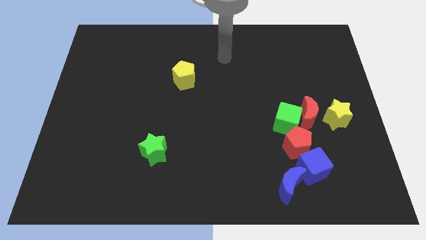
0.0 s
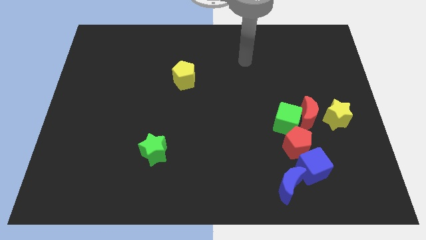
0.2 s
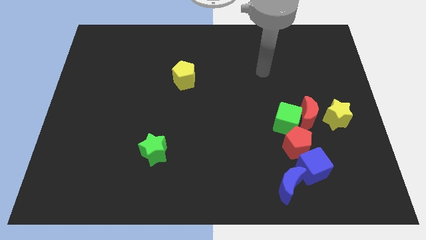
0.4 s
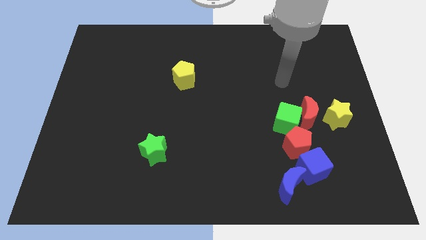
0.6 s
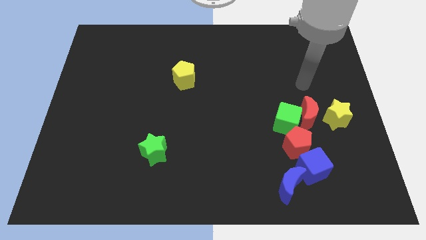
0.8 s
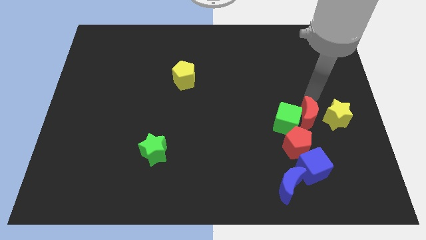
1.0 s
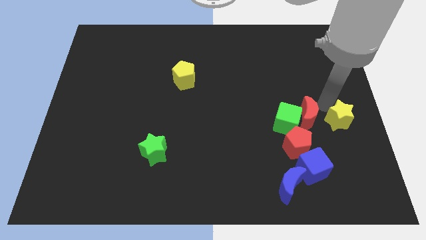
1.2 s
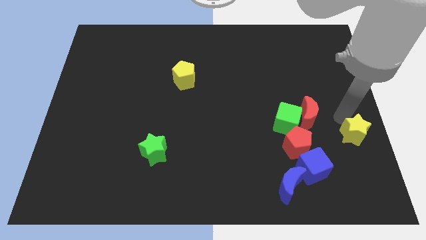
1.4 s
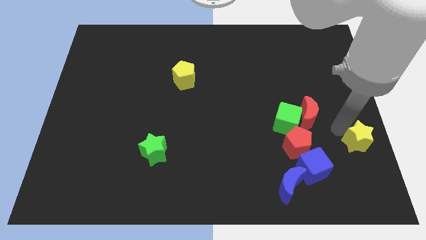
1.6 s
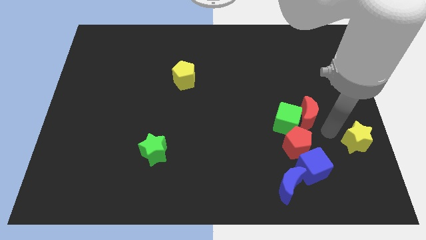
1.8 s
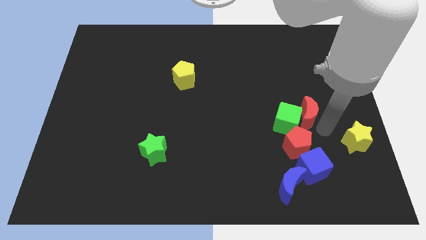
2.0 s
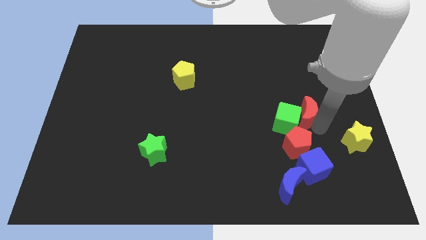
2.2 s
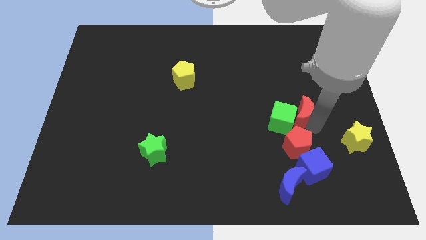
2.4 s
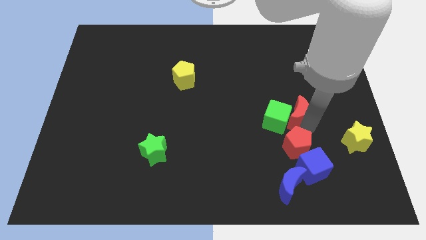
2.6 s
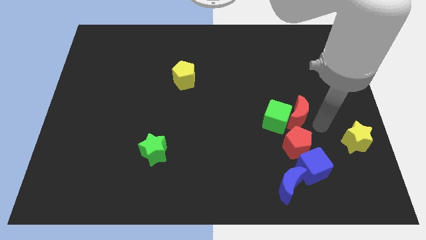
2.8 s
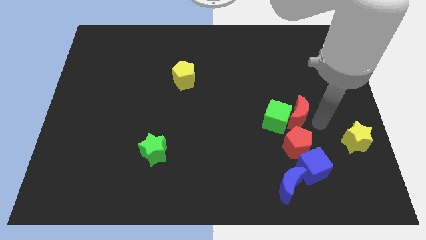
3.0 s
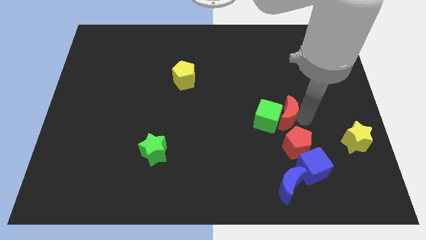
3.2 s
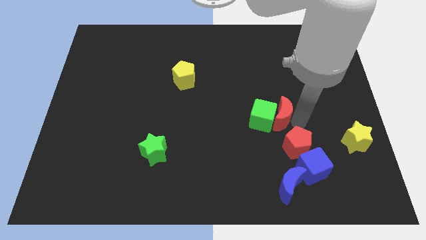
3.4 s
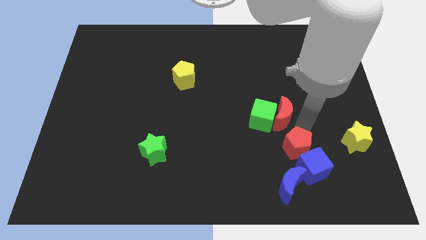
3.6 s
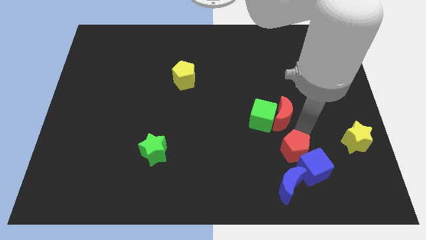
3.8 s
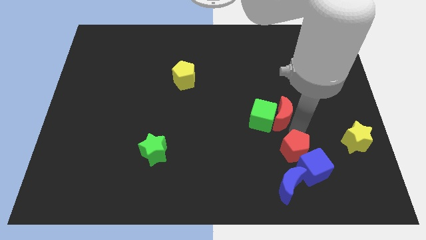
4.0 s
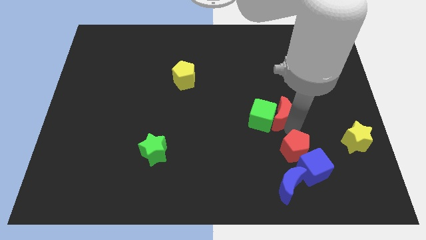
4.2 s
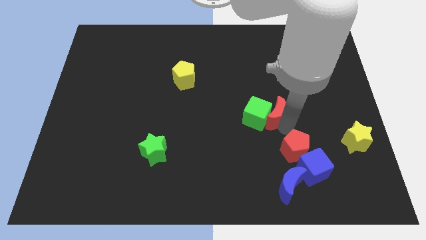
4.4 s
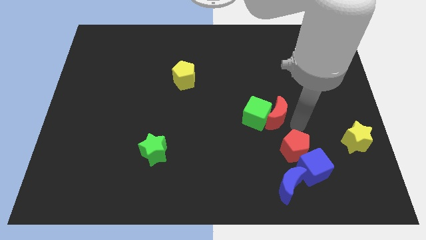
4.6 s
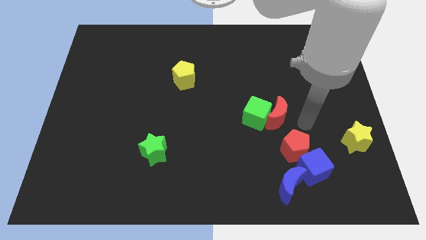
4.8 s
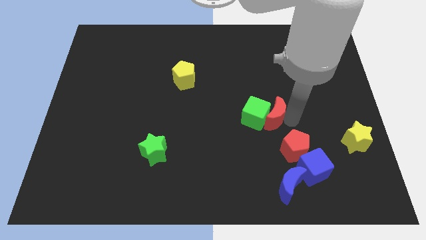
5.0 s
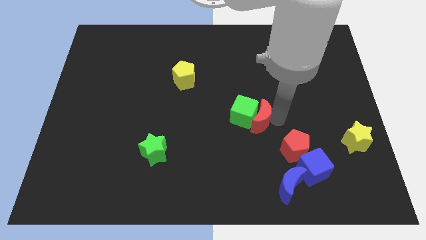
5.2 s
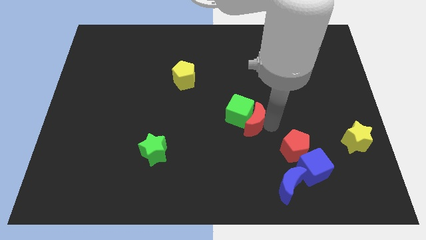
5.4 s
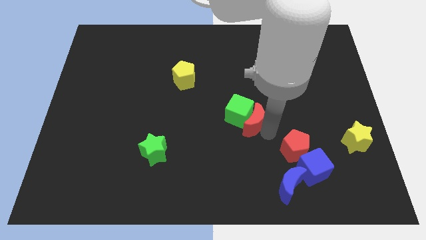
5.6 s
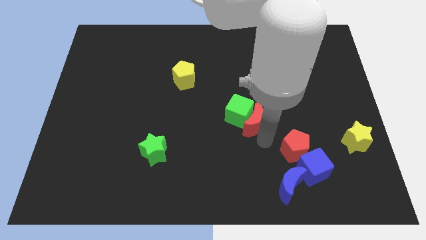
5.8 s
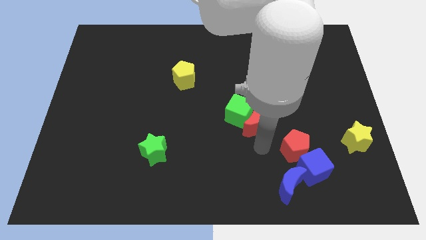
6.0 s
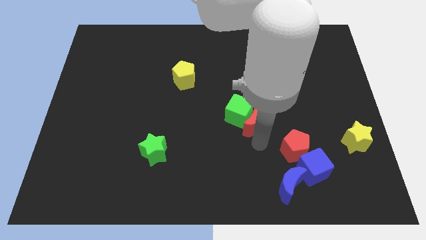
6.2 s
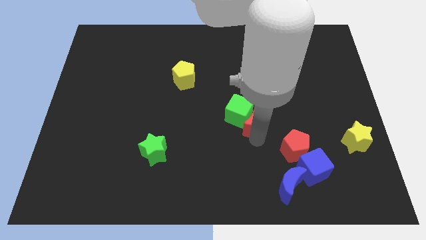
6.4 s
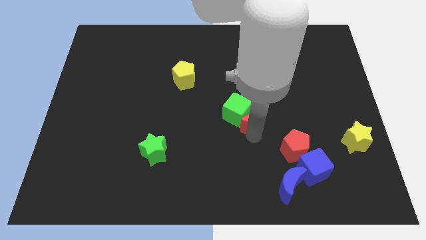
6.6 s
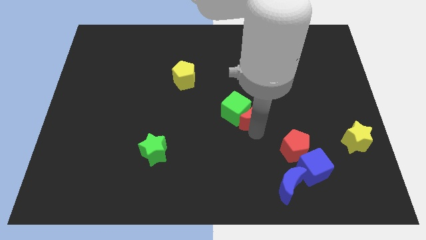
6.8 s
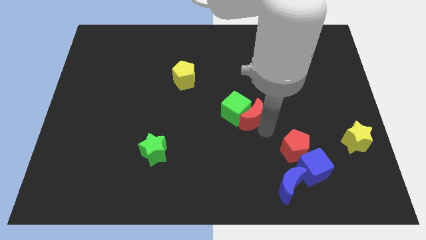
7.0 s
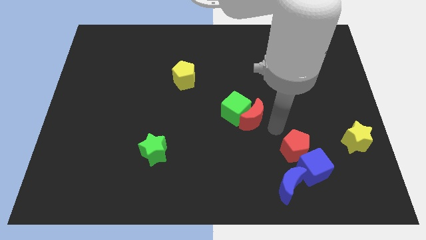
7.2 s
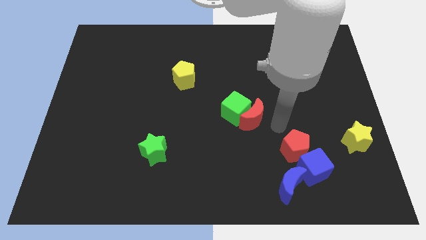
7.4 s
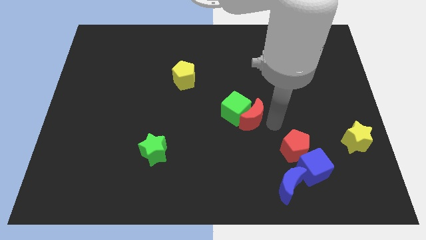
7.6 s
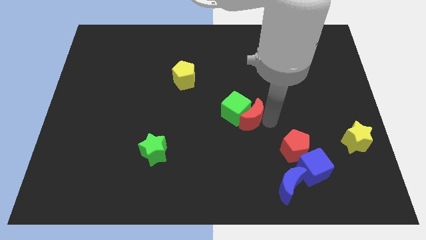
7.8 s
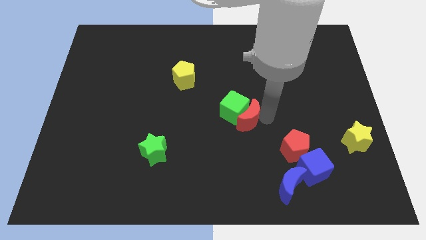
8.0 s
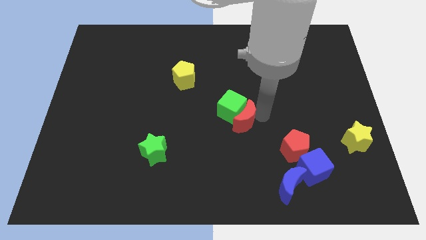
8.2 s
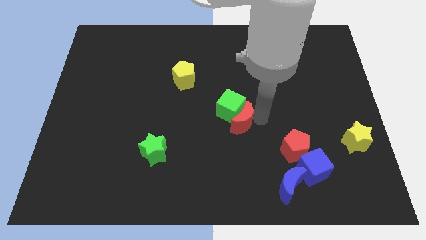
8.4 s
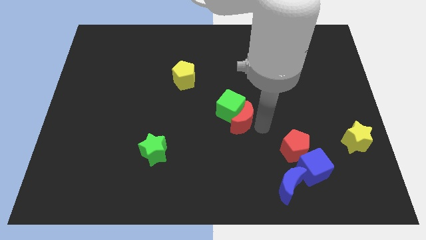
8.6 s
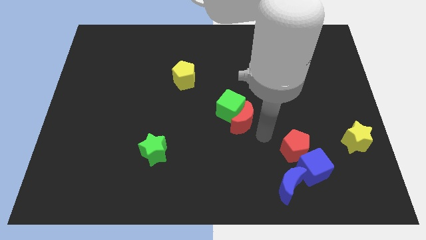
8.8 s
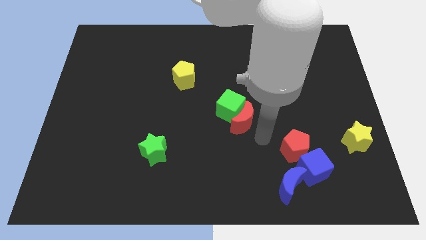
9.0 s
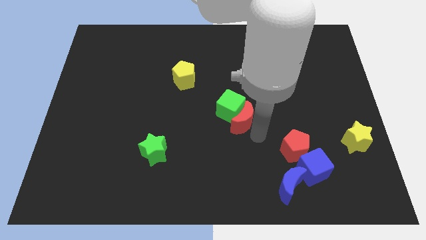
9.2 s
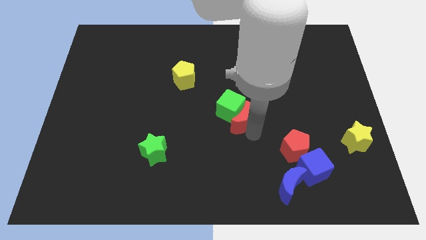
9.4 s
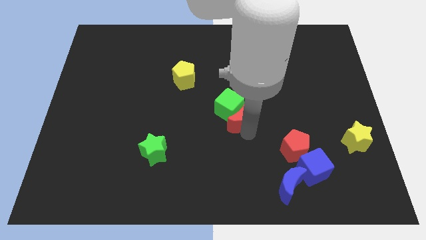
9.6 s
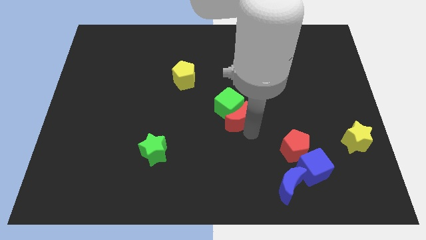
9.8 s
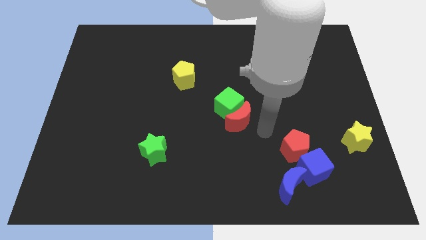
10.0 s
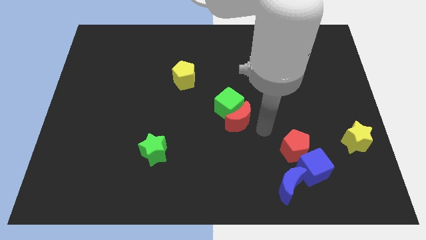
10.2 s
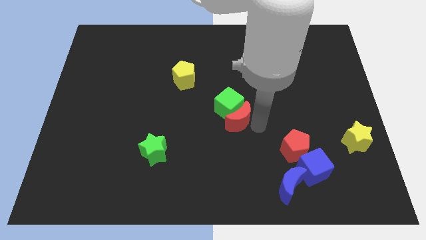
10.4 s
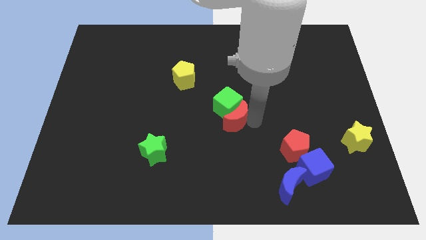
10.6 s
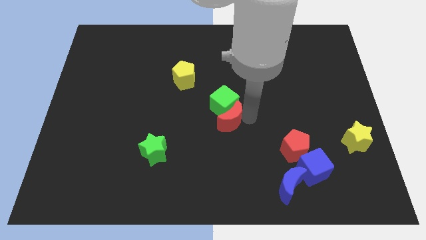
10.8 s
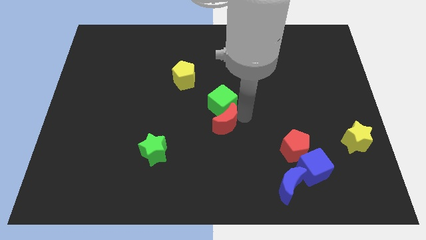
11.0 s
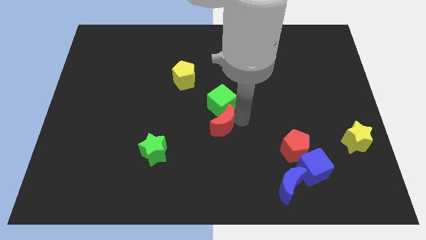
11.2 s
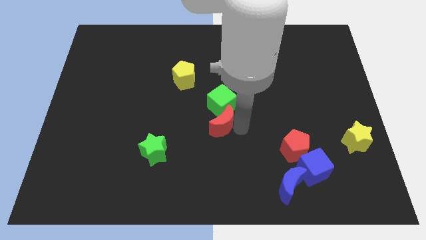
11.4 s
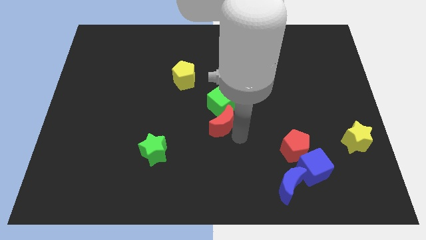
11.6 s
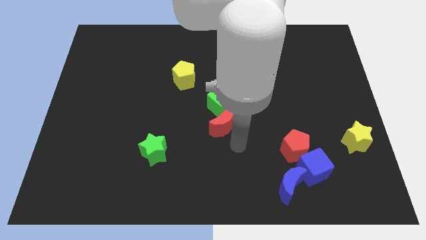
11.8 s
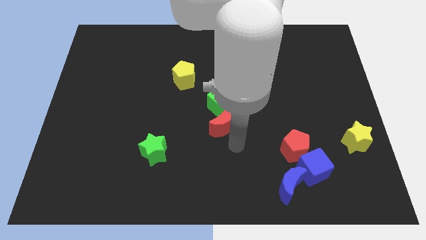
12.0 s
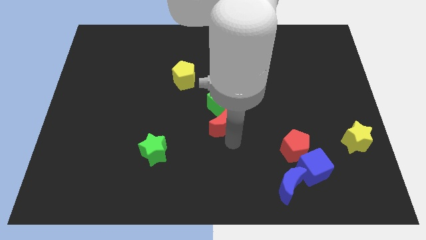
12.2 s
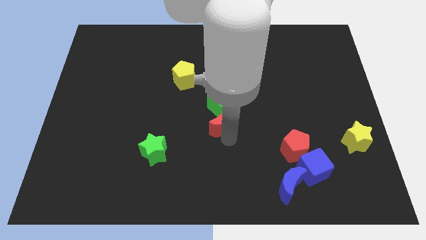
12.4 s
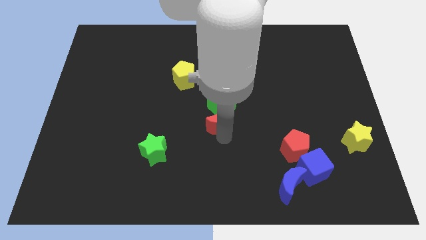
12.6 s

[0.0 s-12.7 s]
slide the red moon to the left

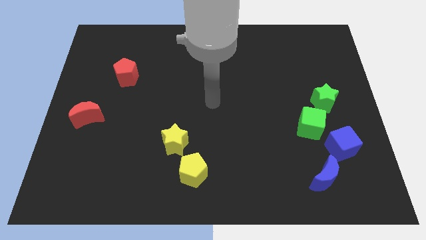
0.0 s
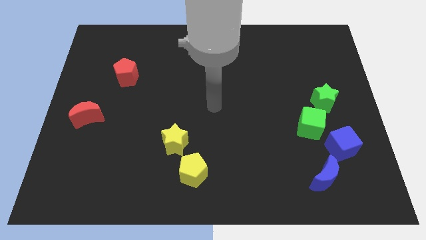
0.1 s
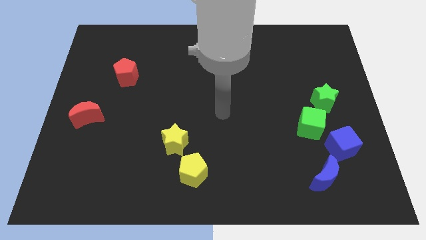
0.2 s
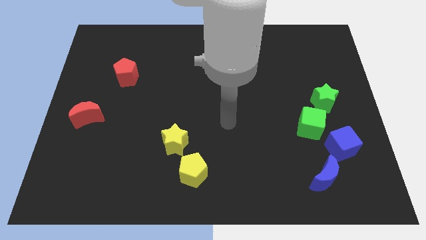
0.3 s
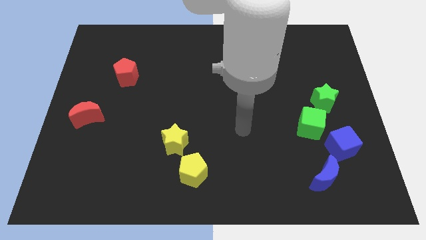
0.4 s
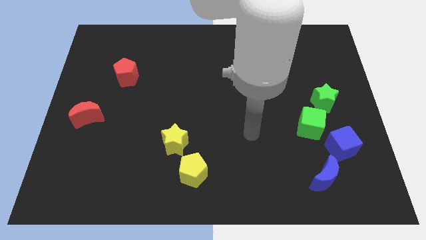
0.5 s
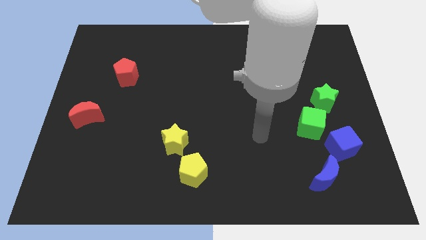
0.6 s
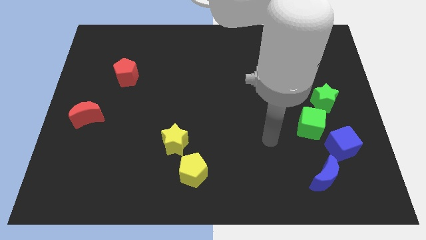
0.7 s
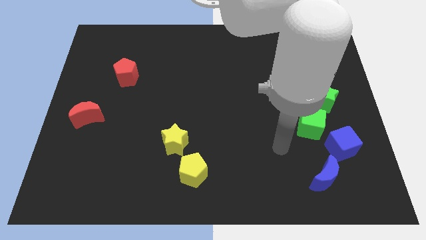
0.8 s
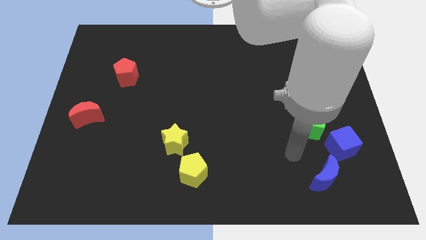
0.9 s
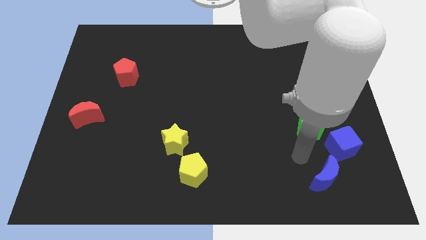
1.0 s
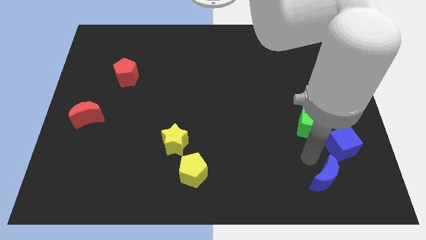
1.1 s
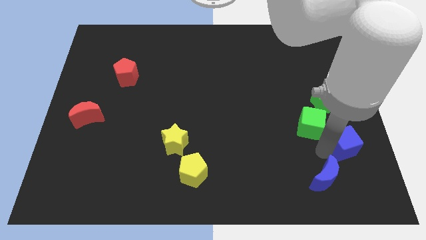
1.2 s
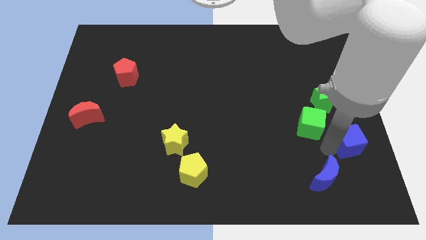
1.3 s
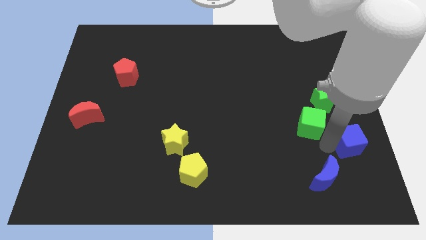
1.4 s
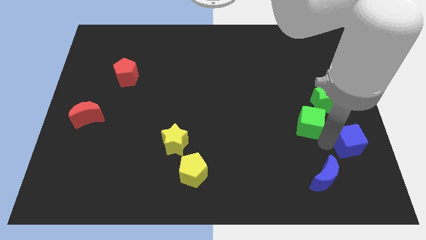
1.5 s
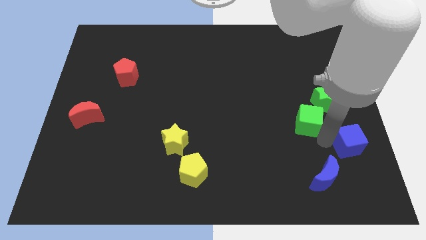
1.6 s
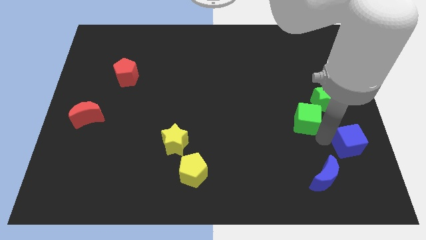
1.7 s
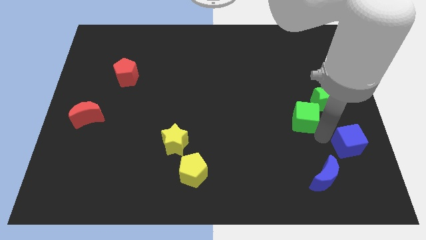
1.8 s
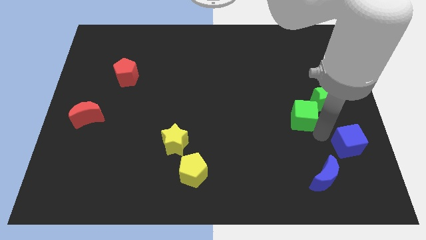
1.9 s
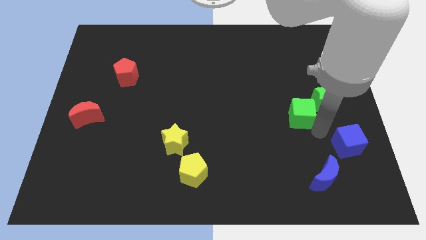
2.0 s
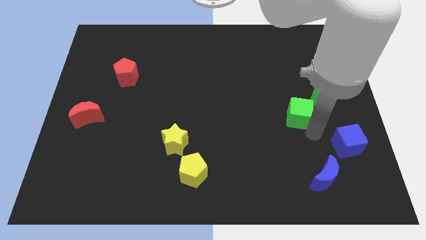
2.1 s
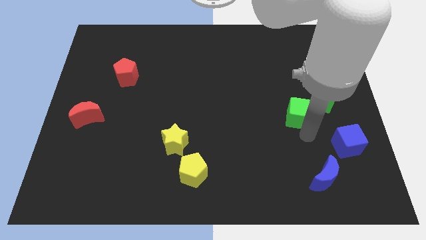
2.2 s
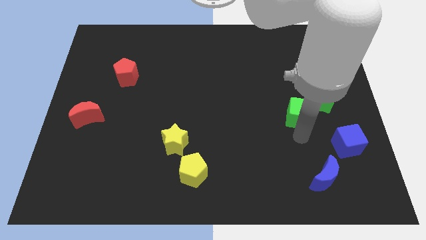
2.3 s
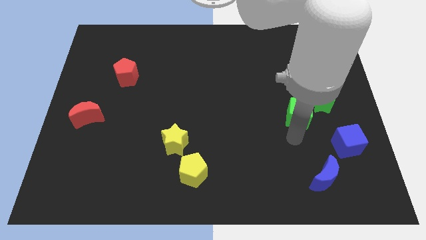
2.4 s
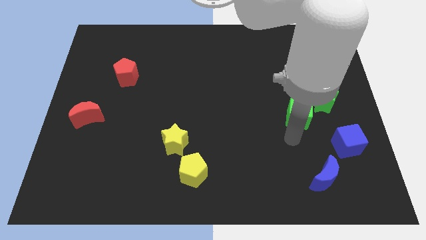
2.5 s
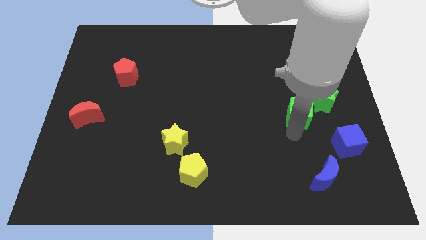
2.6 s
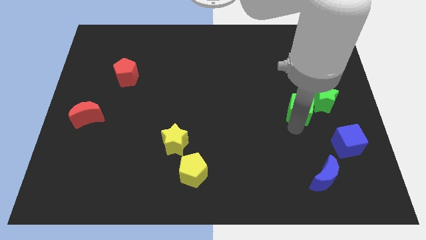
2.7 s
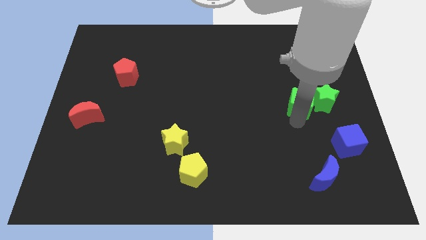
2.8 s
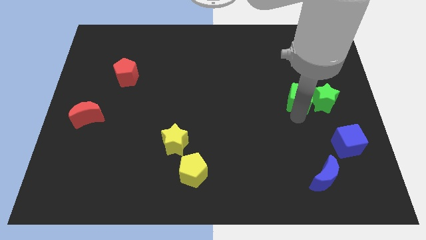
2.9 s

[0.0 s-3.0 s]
slightly move the green cube upwards
